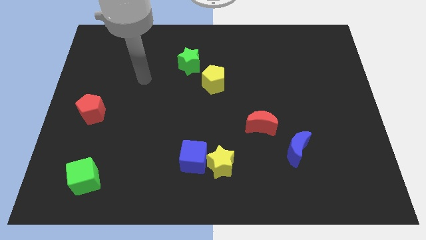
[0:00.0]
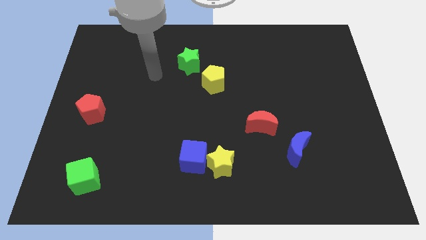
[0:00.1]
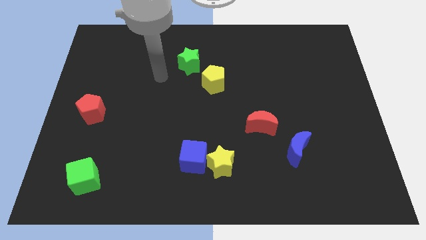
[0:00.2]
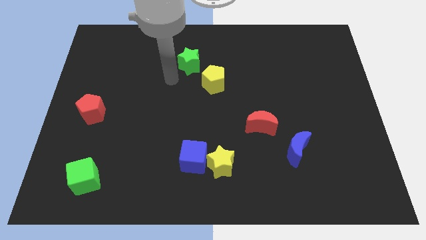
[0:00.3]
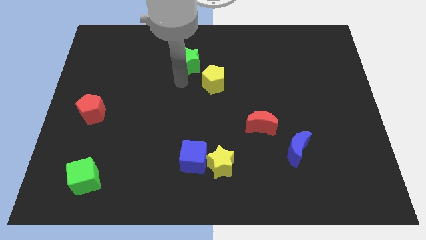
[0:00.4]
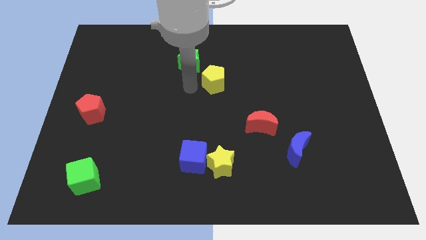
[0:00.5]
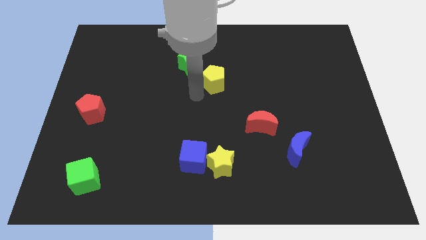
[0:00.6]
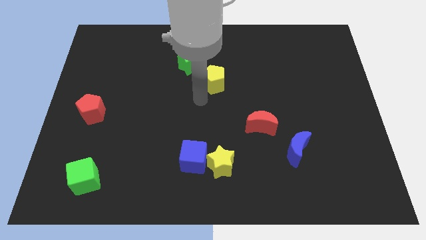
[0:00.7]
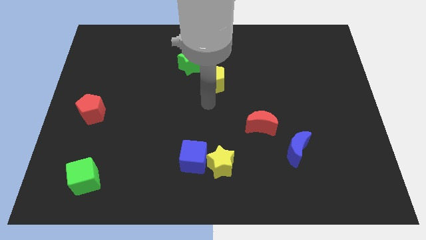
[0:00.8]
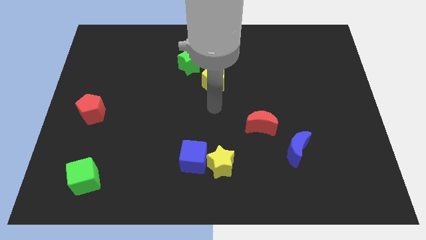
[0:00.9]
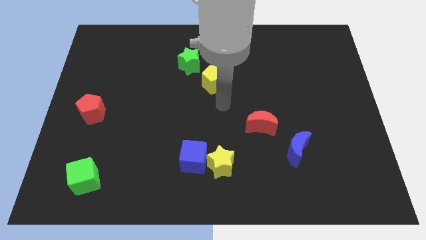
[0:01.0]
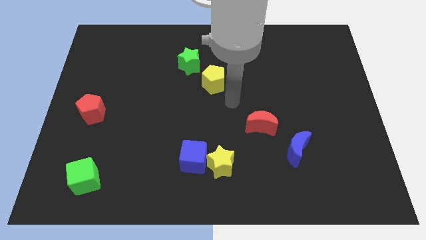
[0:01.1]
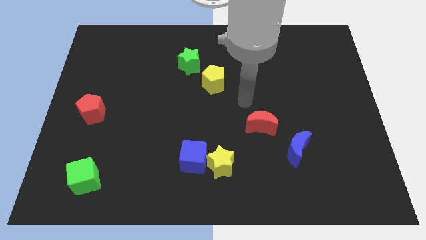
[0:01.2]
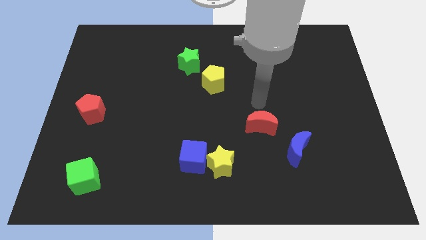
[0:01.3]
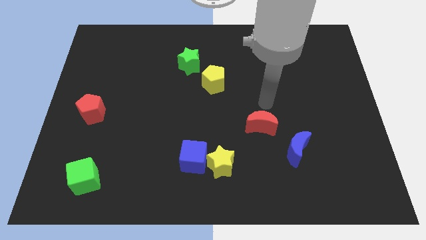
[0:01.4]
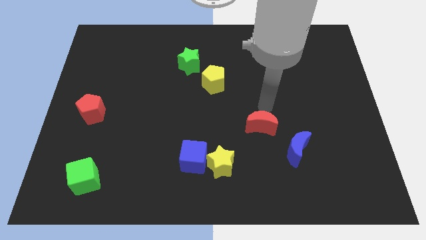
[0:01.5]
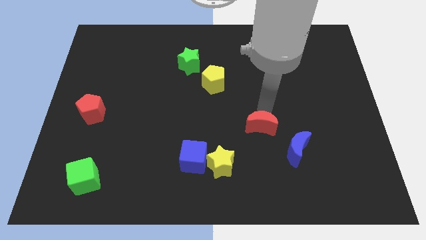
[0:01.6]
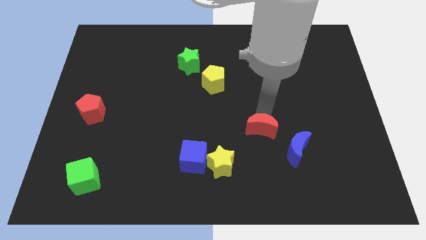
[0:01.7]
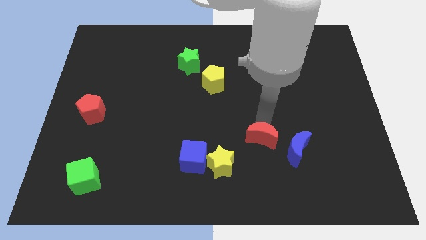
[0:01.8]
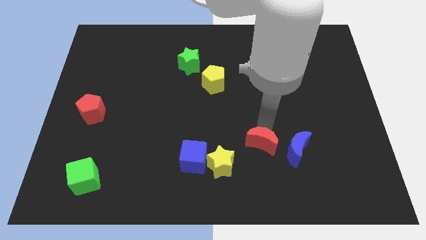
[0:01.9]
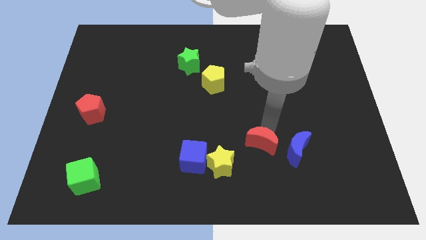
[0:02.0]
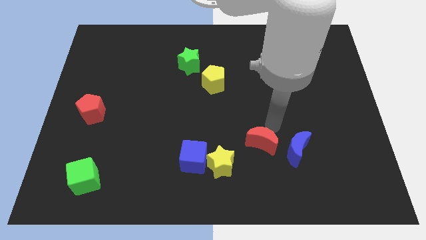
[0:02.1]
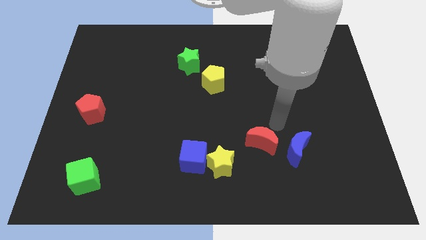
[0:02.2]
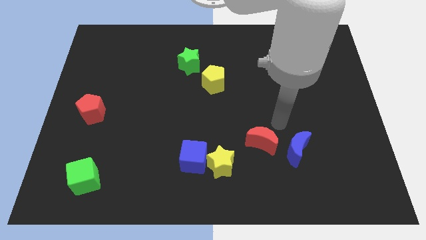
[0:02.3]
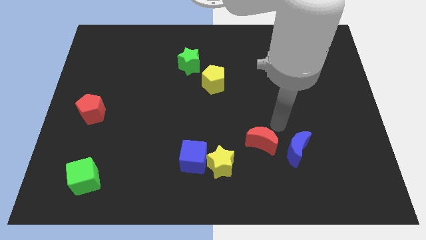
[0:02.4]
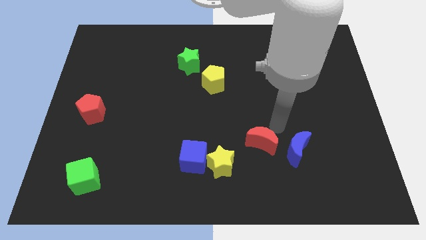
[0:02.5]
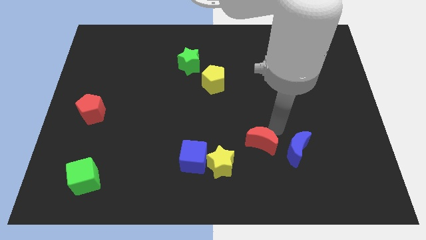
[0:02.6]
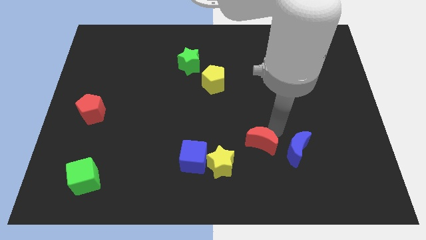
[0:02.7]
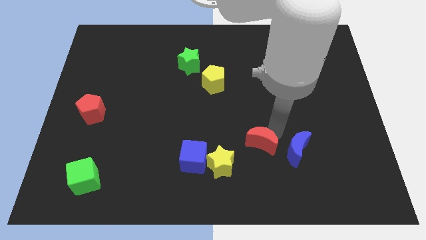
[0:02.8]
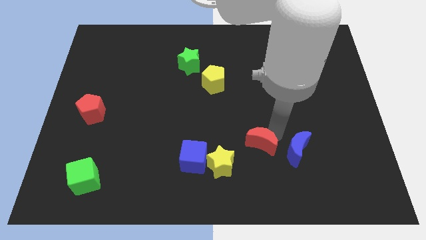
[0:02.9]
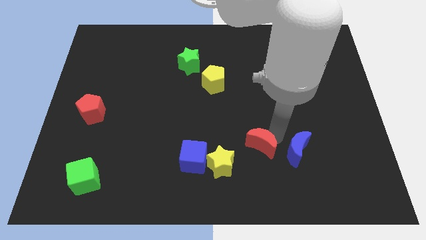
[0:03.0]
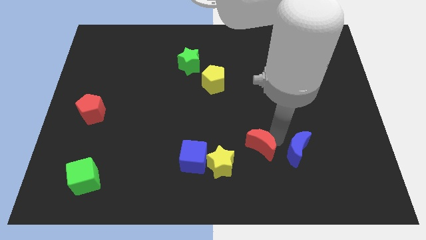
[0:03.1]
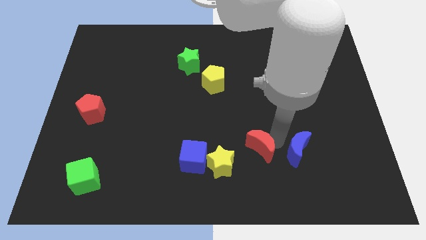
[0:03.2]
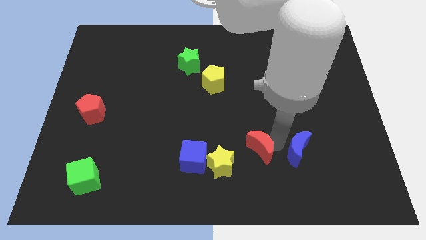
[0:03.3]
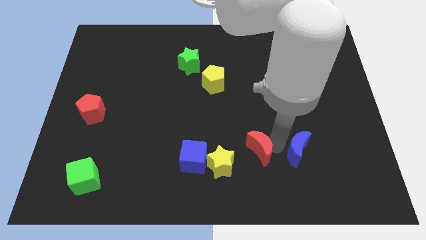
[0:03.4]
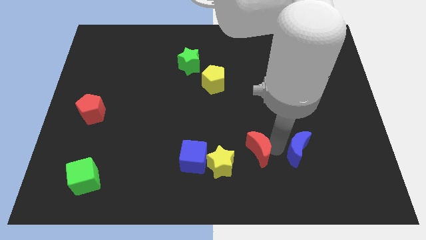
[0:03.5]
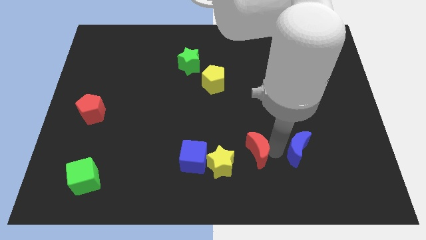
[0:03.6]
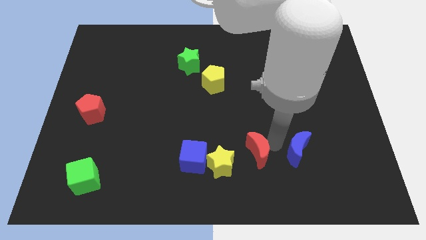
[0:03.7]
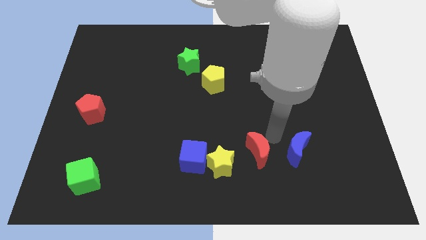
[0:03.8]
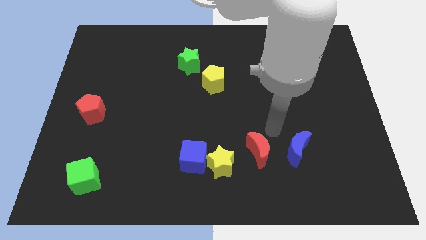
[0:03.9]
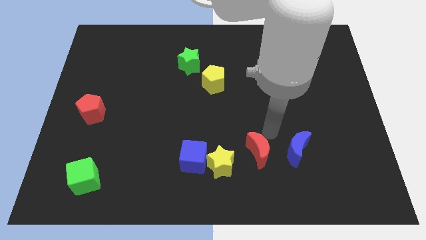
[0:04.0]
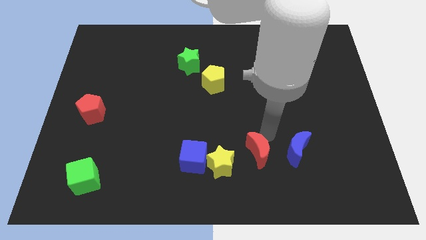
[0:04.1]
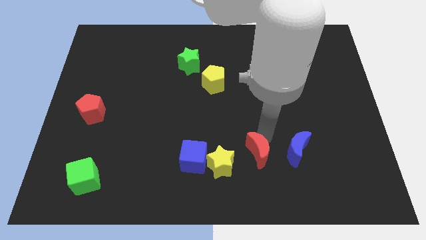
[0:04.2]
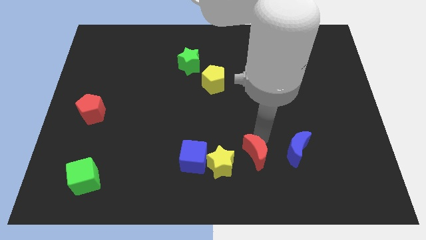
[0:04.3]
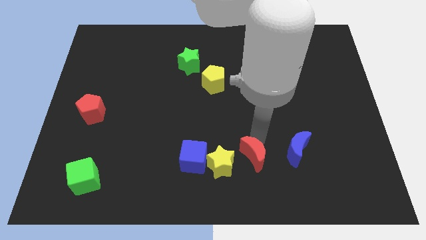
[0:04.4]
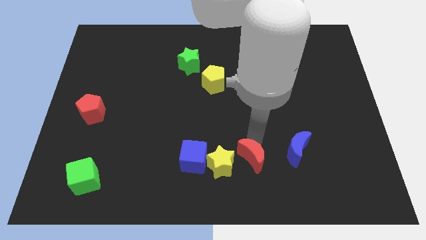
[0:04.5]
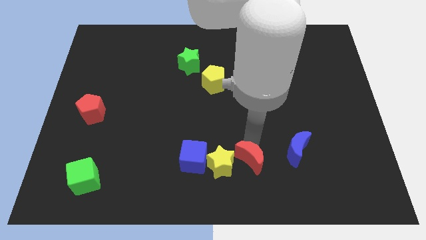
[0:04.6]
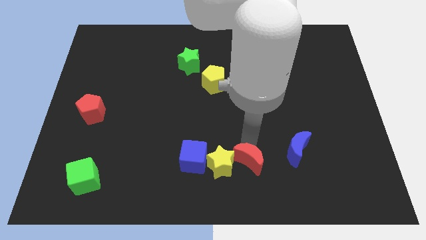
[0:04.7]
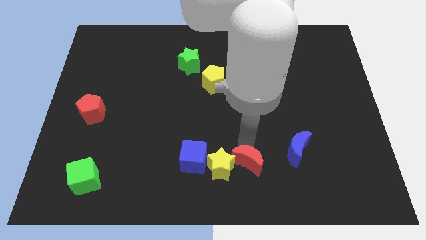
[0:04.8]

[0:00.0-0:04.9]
slide the red moon to the bottom side

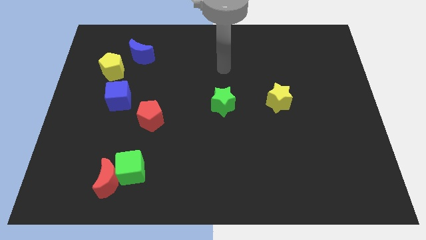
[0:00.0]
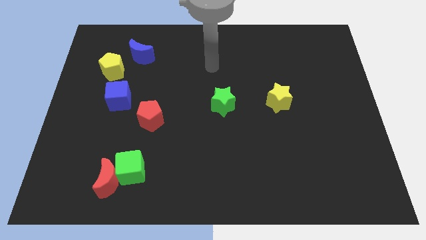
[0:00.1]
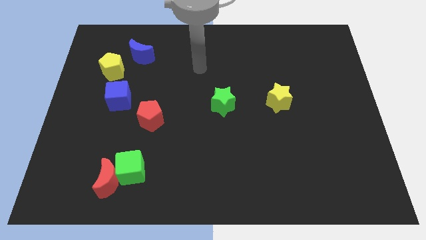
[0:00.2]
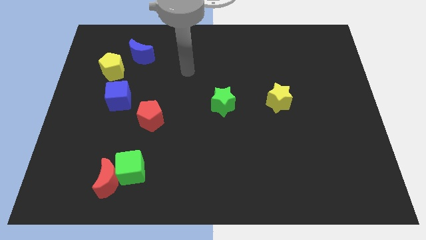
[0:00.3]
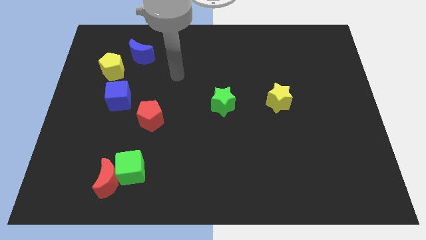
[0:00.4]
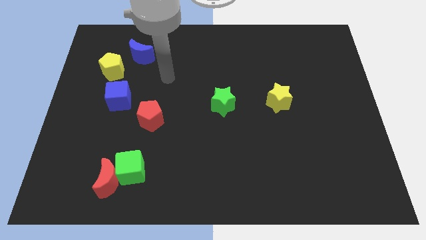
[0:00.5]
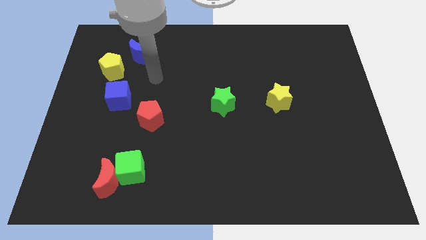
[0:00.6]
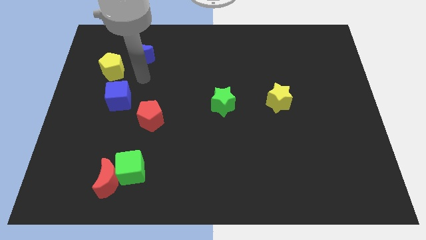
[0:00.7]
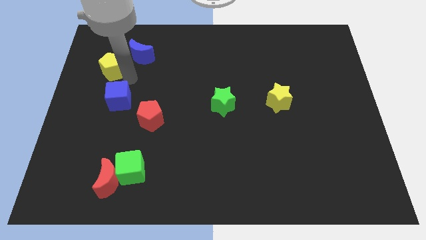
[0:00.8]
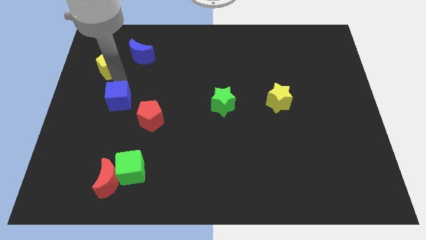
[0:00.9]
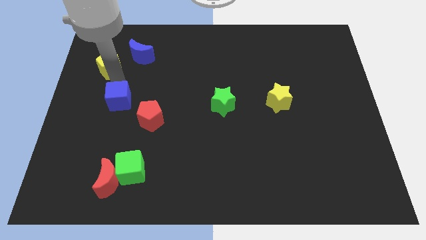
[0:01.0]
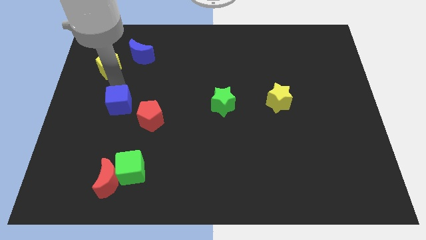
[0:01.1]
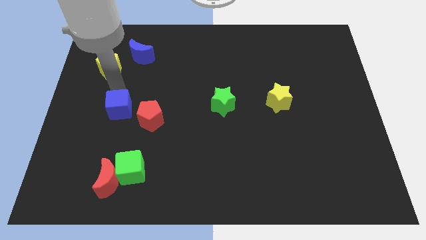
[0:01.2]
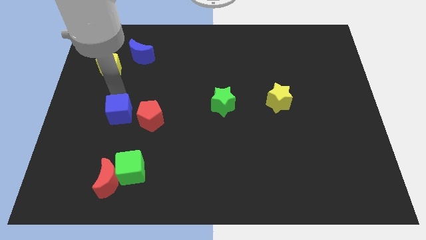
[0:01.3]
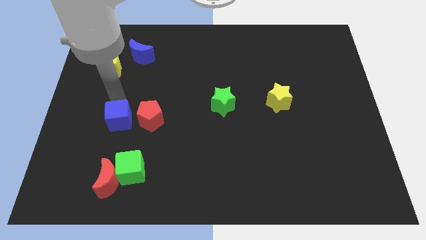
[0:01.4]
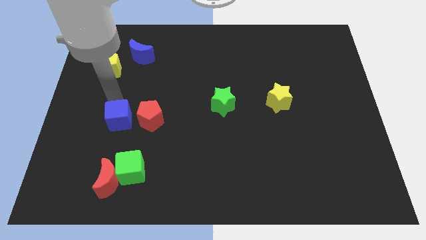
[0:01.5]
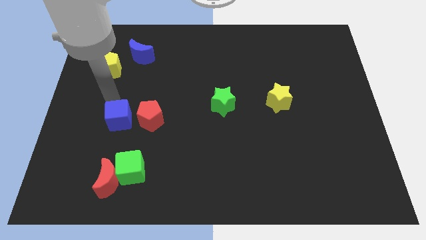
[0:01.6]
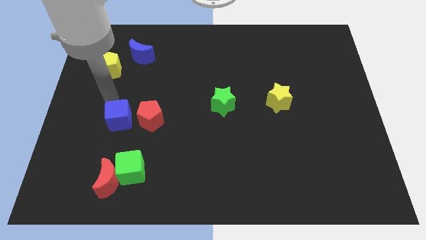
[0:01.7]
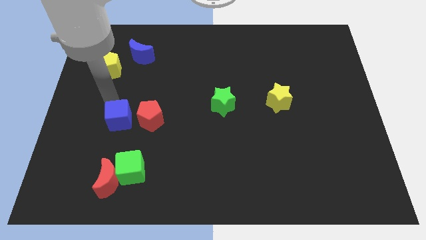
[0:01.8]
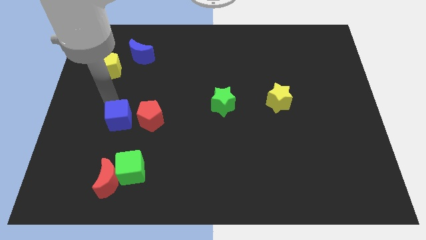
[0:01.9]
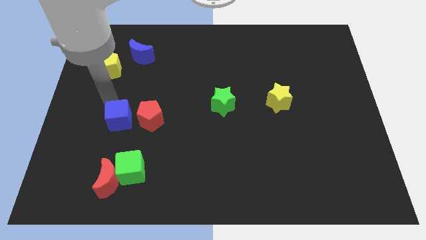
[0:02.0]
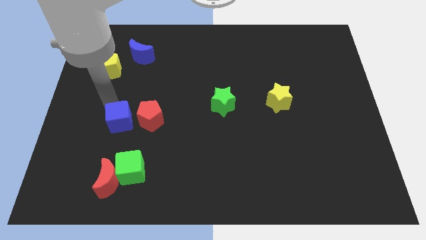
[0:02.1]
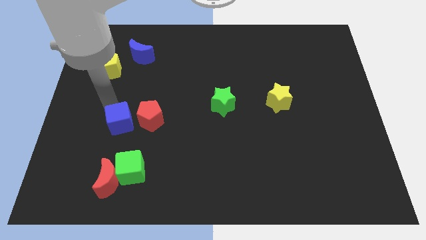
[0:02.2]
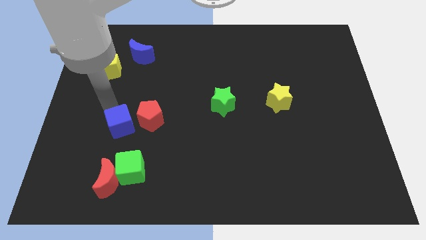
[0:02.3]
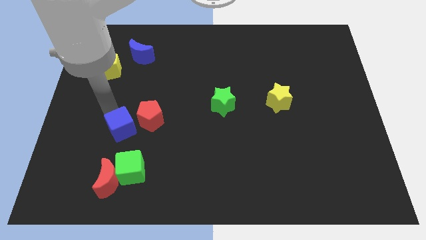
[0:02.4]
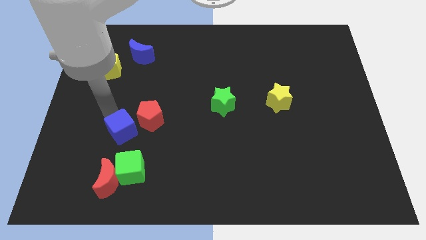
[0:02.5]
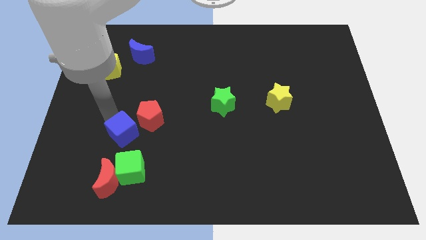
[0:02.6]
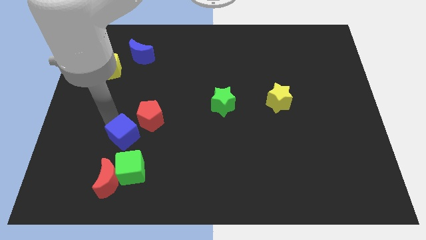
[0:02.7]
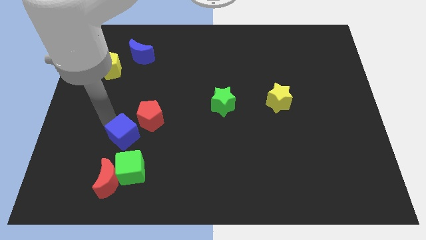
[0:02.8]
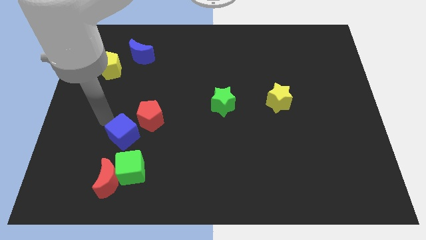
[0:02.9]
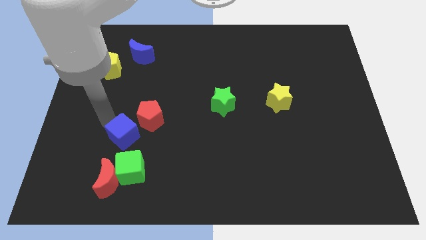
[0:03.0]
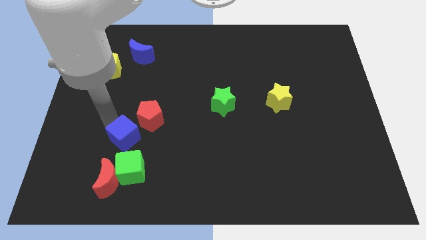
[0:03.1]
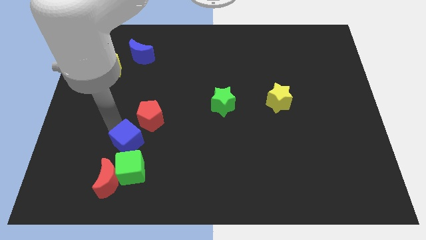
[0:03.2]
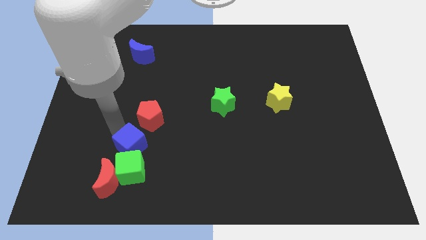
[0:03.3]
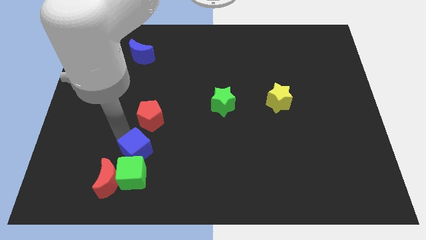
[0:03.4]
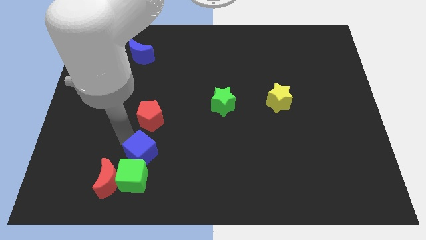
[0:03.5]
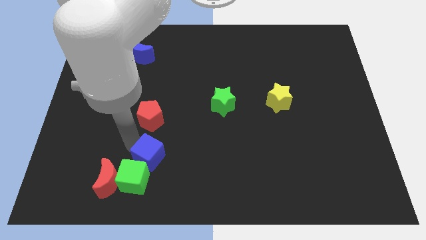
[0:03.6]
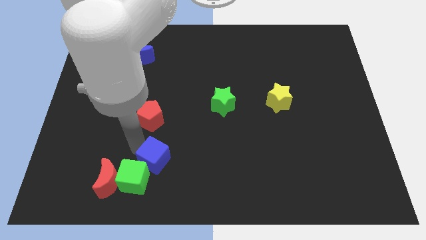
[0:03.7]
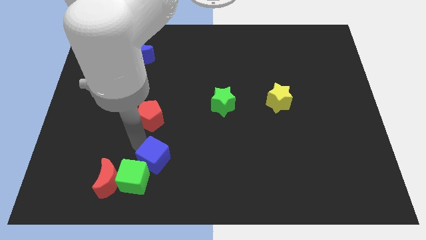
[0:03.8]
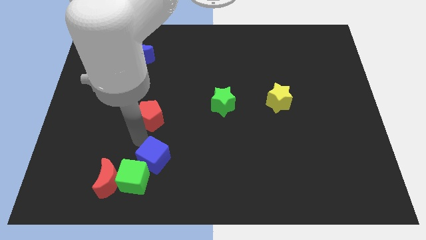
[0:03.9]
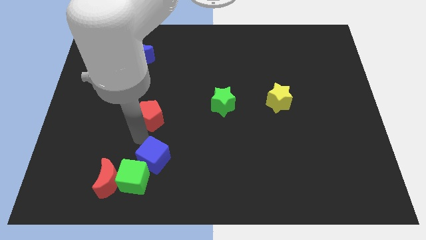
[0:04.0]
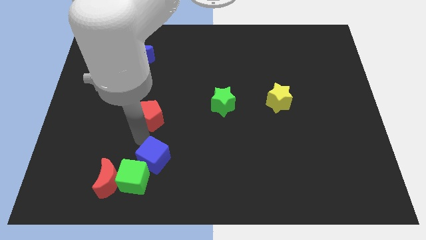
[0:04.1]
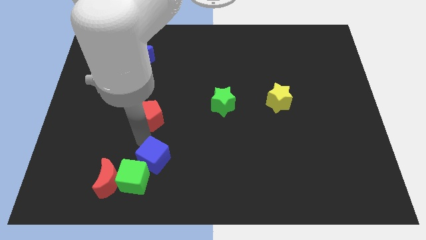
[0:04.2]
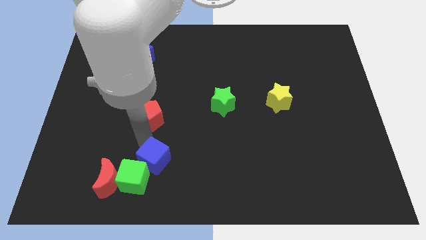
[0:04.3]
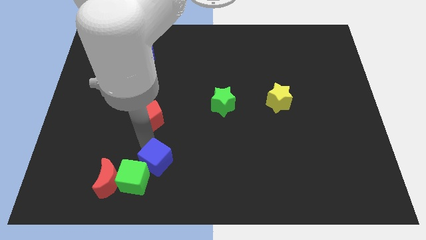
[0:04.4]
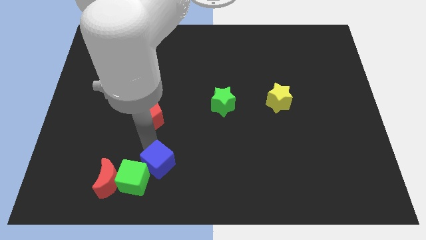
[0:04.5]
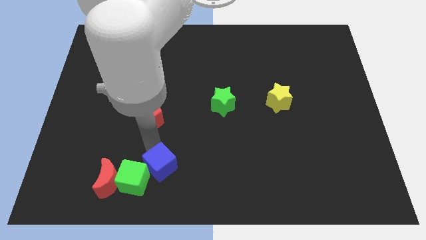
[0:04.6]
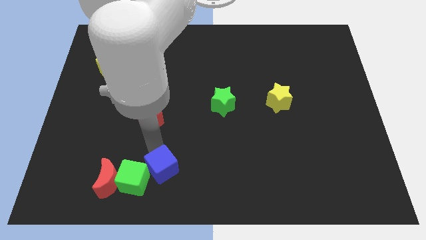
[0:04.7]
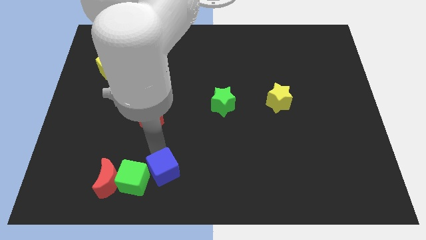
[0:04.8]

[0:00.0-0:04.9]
move the blue cube to the bottom side
